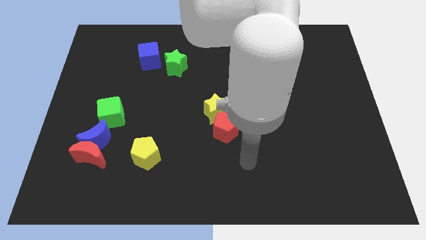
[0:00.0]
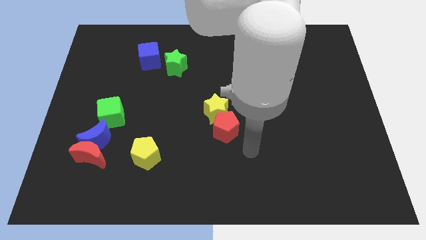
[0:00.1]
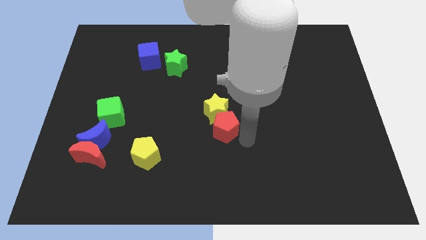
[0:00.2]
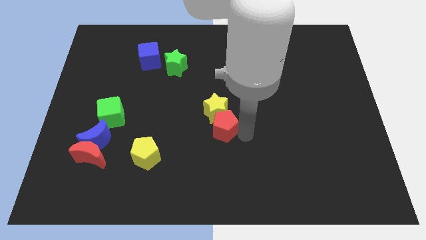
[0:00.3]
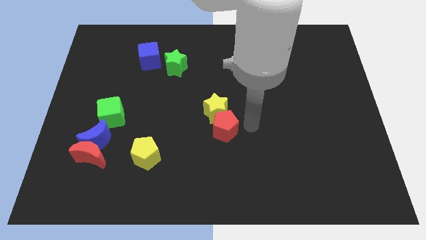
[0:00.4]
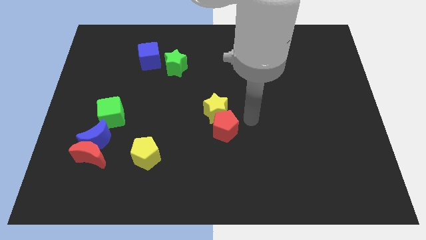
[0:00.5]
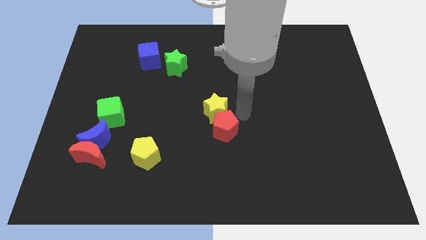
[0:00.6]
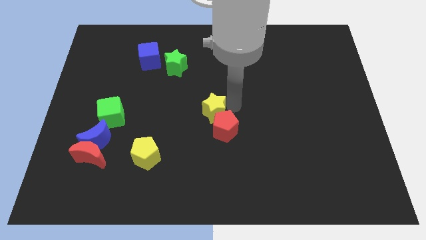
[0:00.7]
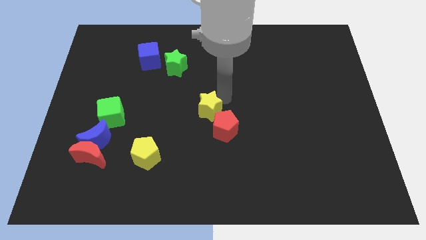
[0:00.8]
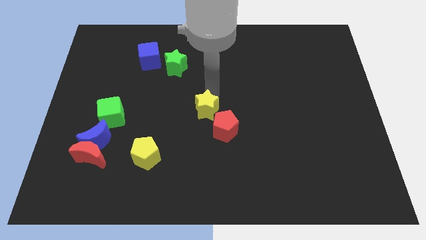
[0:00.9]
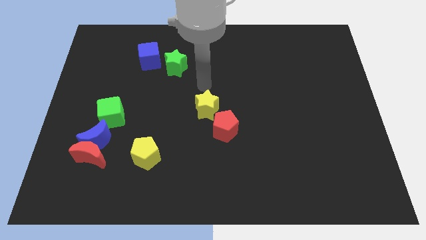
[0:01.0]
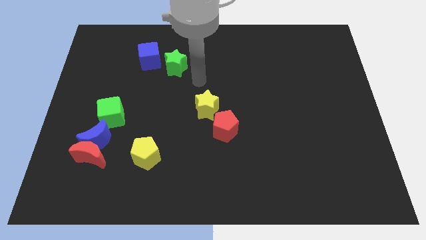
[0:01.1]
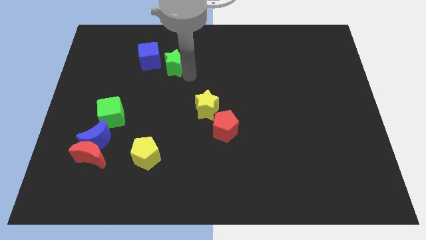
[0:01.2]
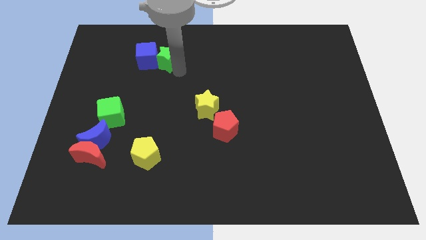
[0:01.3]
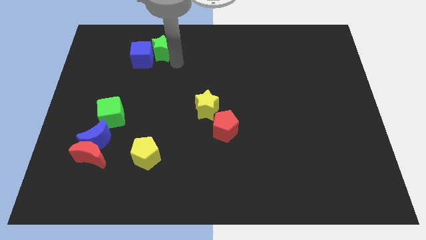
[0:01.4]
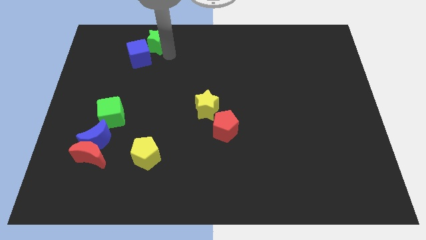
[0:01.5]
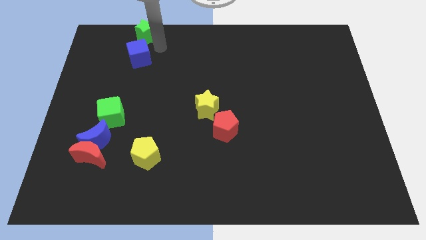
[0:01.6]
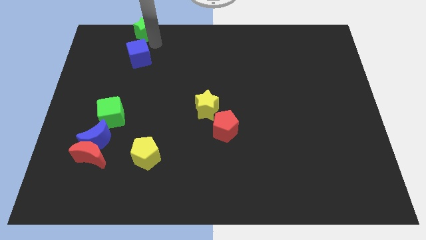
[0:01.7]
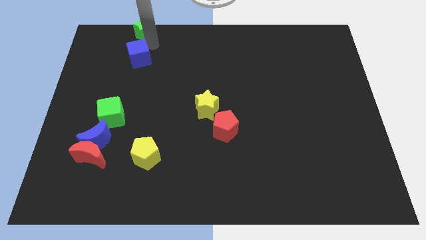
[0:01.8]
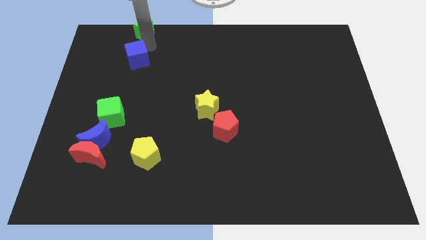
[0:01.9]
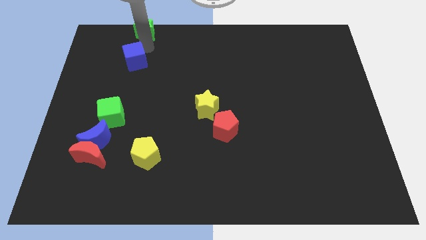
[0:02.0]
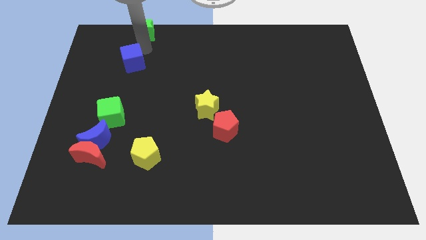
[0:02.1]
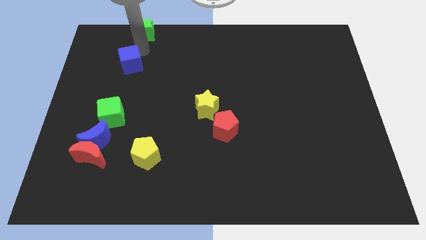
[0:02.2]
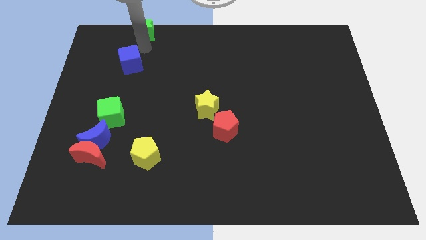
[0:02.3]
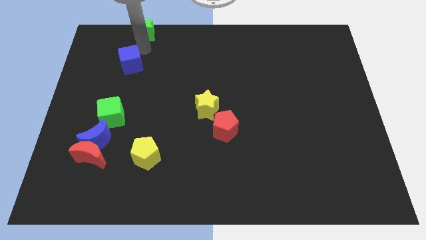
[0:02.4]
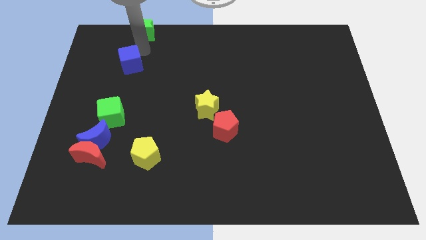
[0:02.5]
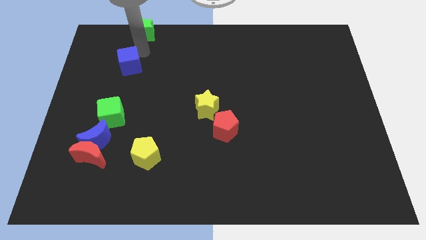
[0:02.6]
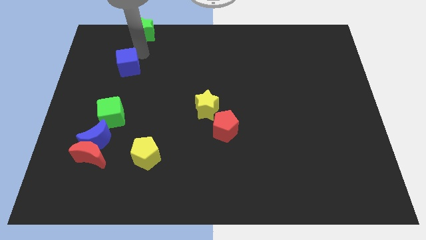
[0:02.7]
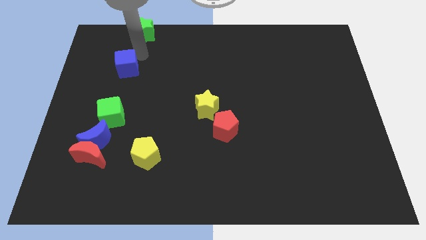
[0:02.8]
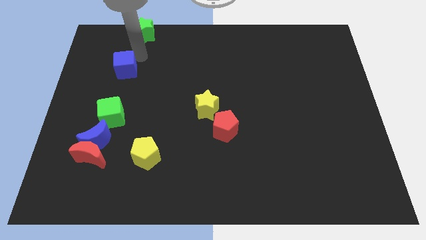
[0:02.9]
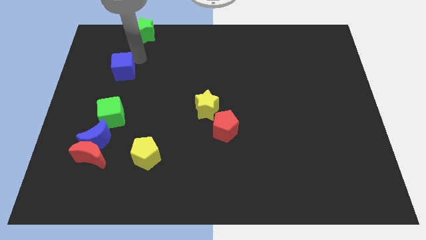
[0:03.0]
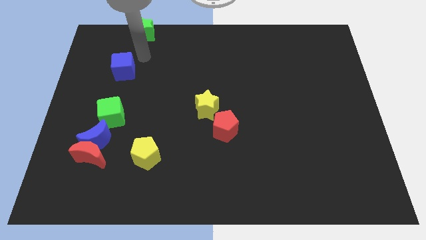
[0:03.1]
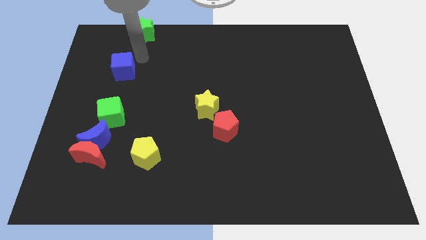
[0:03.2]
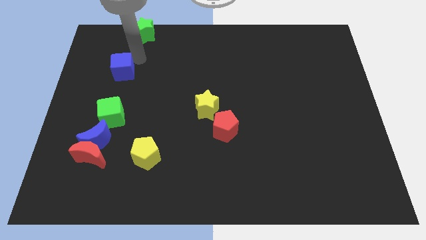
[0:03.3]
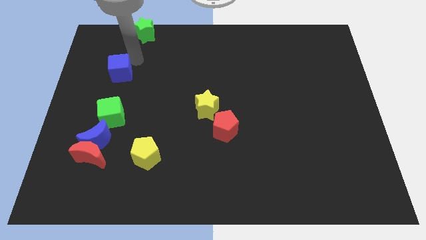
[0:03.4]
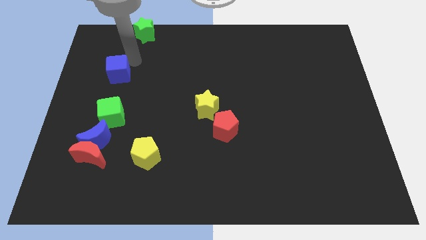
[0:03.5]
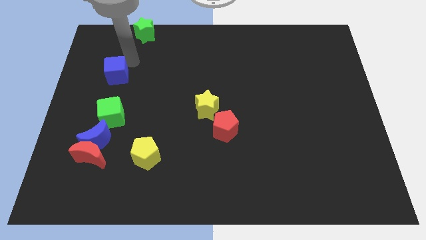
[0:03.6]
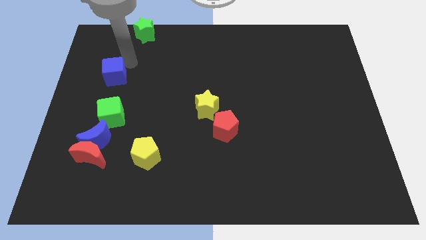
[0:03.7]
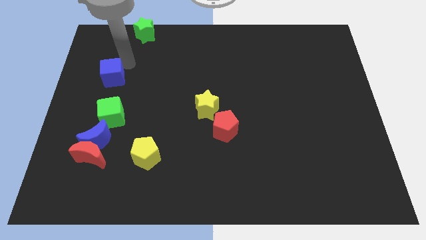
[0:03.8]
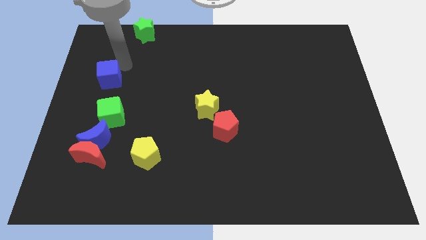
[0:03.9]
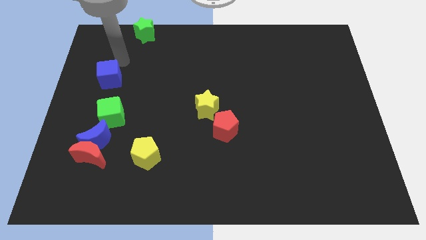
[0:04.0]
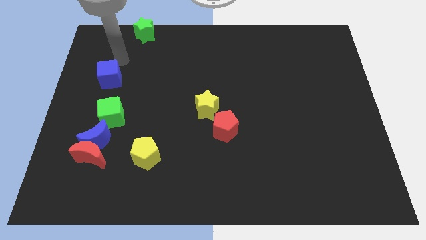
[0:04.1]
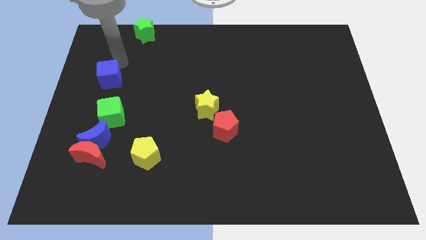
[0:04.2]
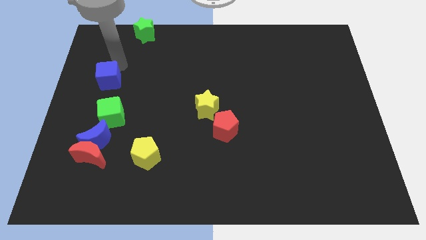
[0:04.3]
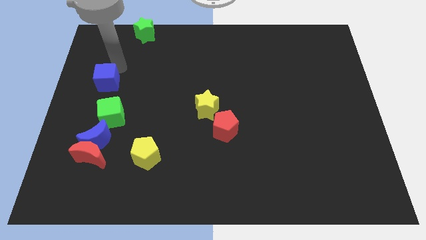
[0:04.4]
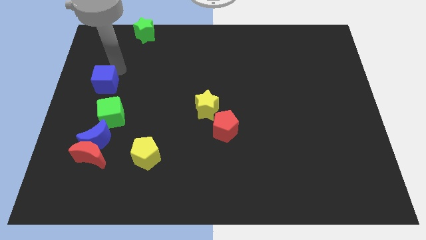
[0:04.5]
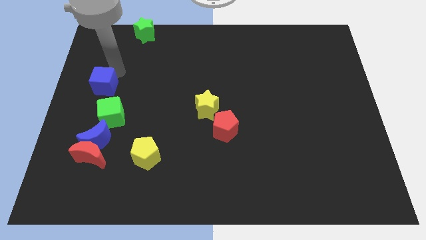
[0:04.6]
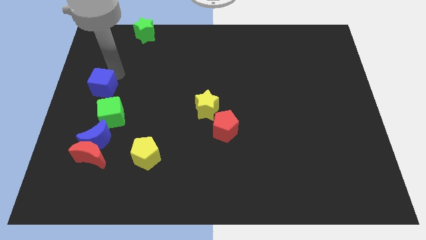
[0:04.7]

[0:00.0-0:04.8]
slide the blue cube to the top of the blue moon
